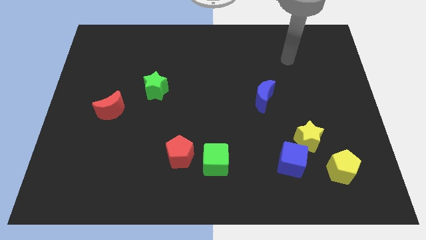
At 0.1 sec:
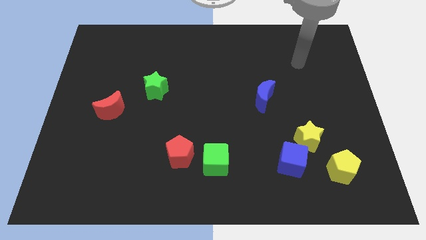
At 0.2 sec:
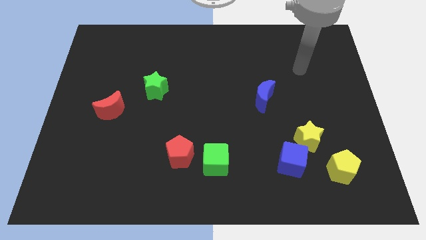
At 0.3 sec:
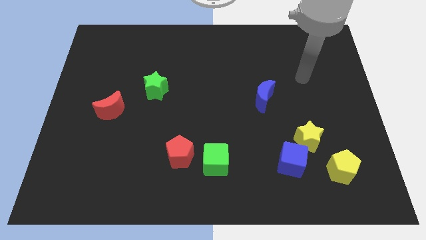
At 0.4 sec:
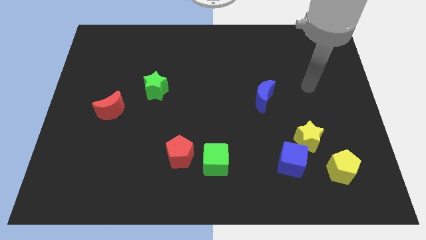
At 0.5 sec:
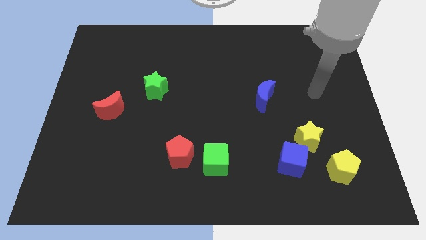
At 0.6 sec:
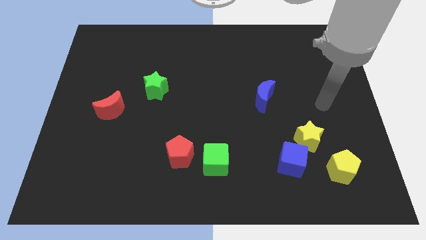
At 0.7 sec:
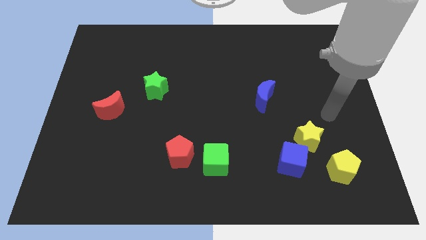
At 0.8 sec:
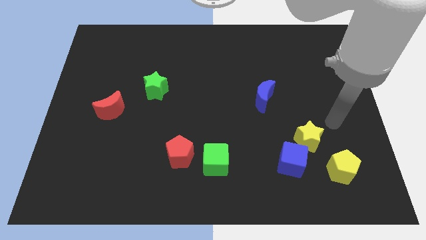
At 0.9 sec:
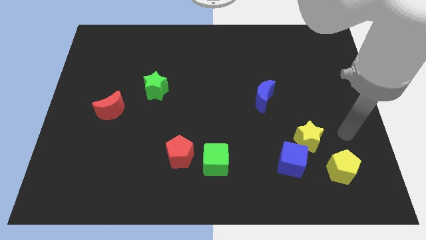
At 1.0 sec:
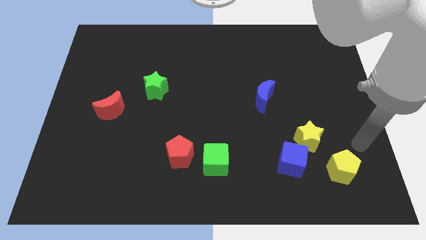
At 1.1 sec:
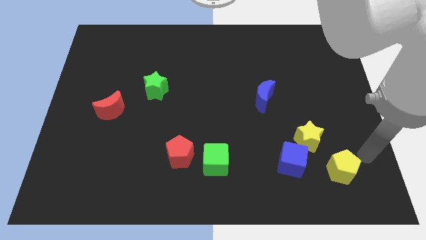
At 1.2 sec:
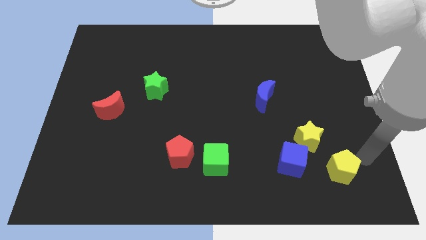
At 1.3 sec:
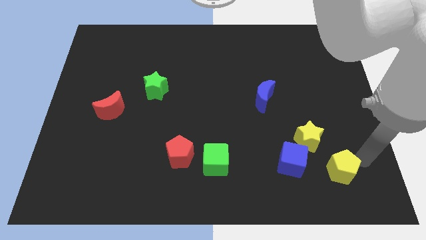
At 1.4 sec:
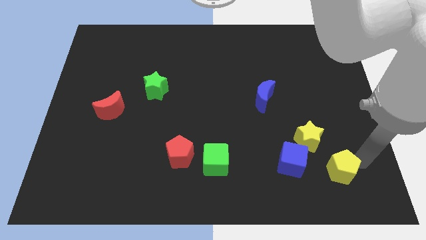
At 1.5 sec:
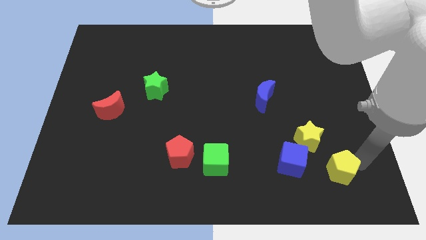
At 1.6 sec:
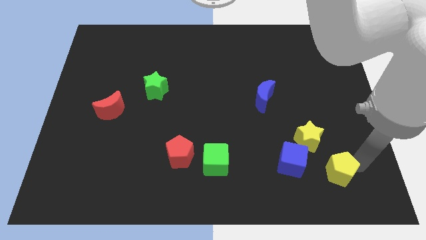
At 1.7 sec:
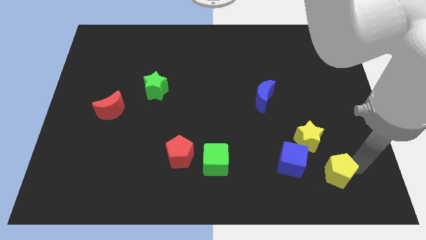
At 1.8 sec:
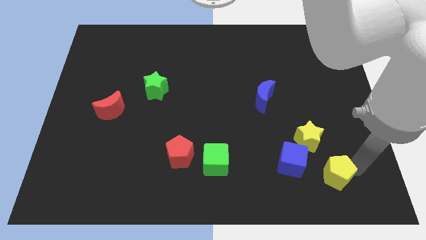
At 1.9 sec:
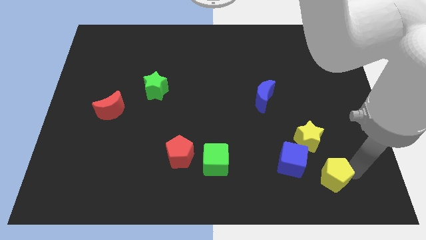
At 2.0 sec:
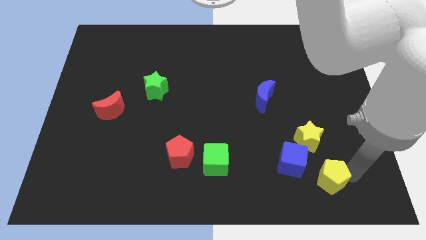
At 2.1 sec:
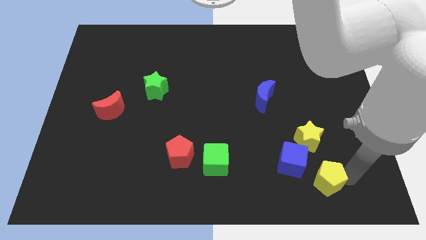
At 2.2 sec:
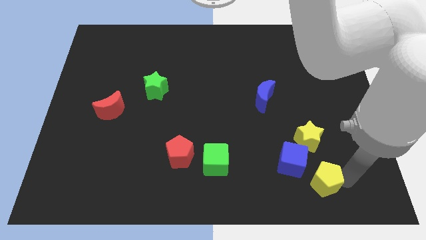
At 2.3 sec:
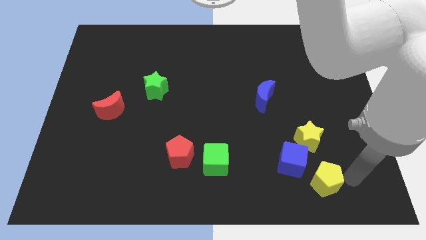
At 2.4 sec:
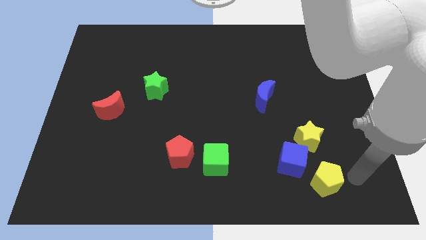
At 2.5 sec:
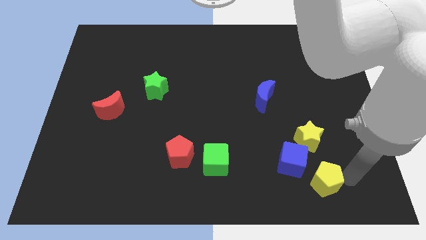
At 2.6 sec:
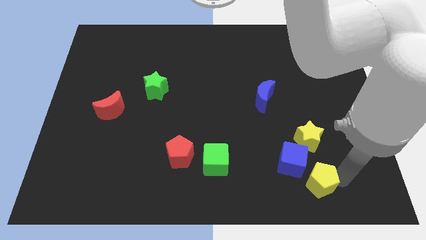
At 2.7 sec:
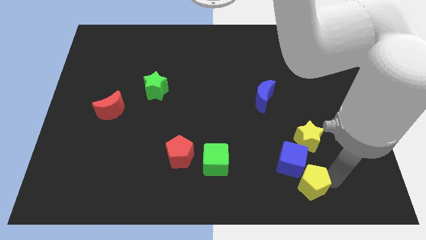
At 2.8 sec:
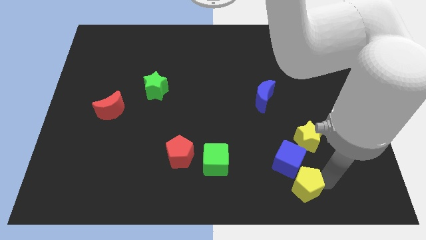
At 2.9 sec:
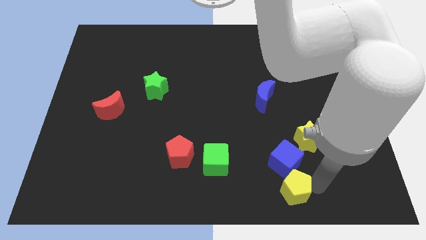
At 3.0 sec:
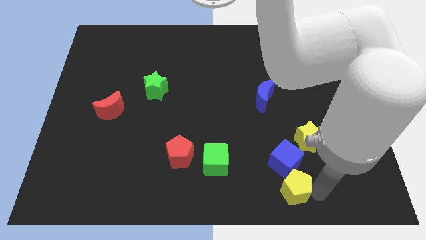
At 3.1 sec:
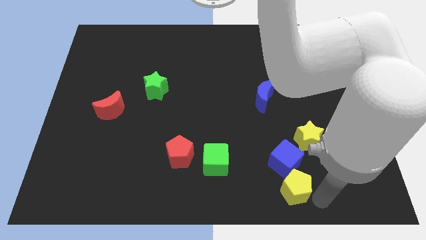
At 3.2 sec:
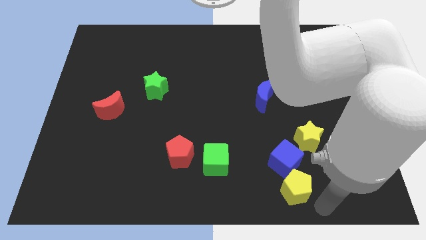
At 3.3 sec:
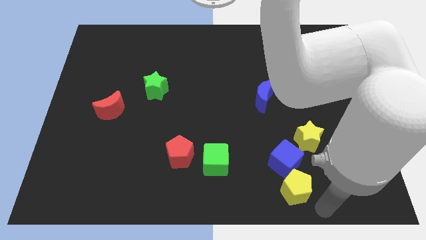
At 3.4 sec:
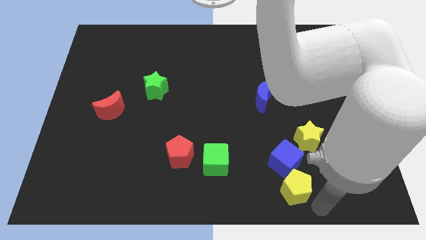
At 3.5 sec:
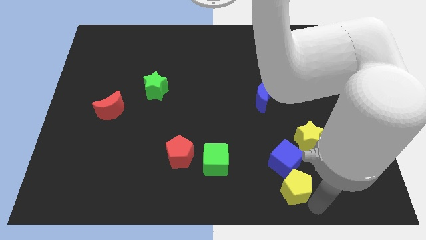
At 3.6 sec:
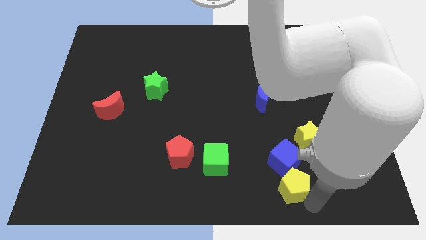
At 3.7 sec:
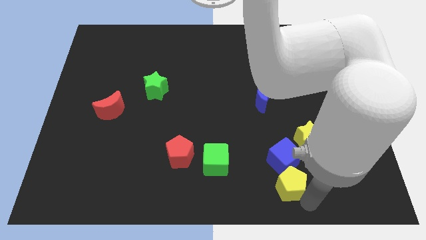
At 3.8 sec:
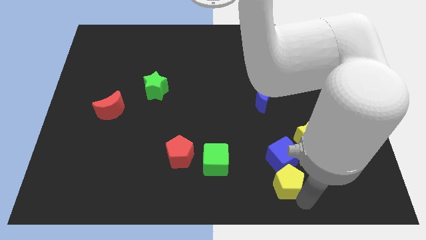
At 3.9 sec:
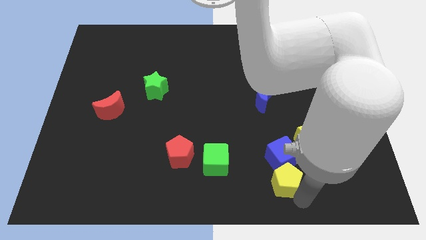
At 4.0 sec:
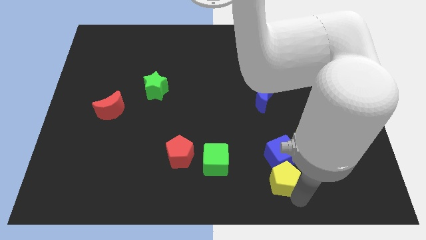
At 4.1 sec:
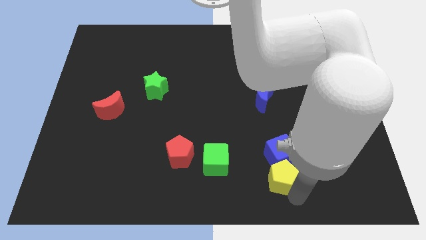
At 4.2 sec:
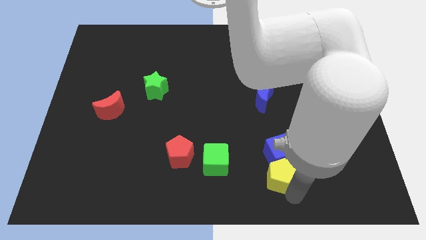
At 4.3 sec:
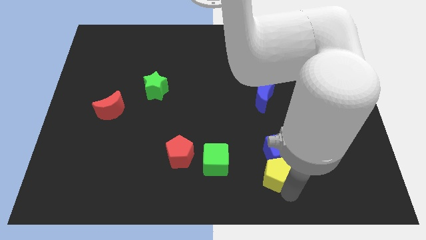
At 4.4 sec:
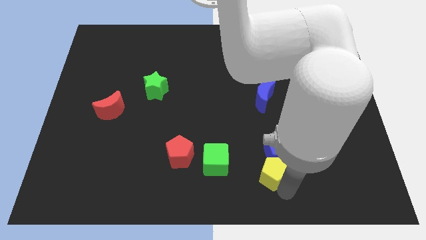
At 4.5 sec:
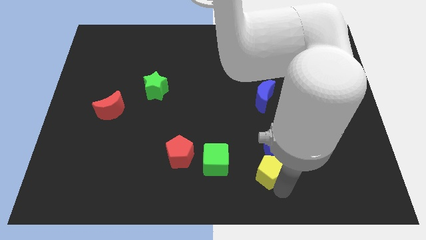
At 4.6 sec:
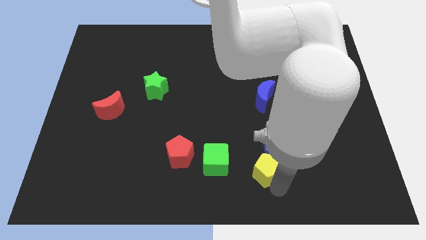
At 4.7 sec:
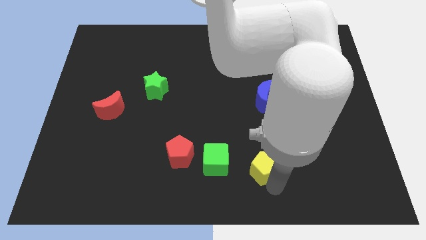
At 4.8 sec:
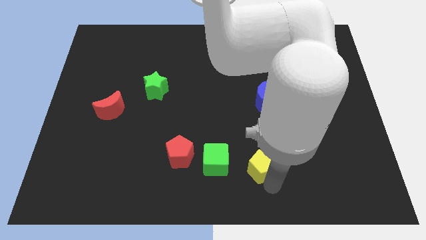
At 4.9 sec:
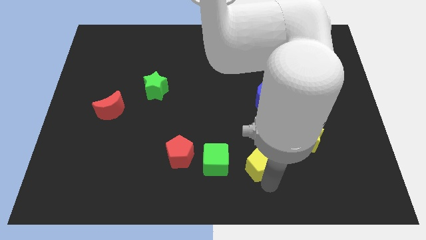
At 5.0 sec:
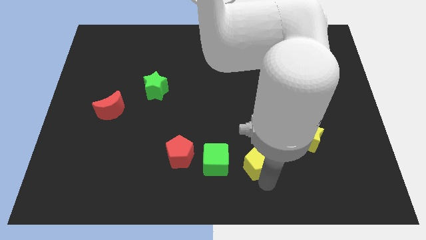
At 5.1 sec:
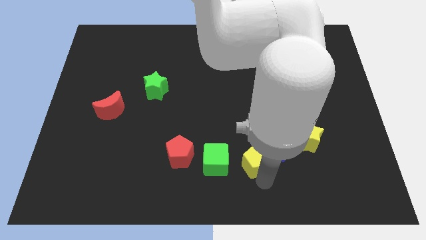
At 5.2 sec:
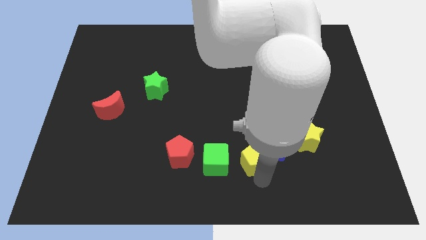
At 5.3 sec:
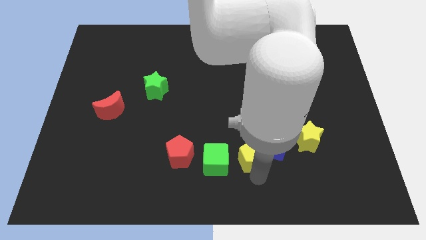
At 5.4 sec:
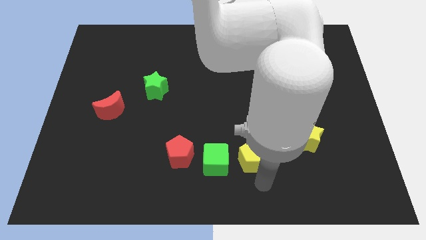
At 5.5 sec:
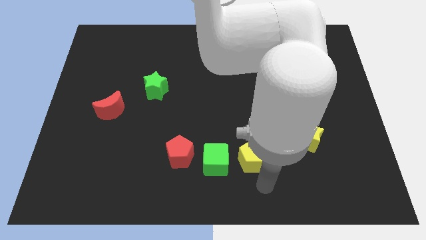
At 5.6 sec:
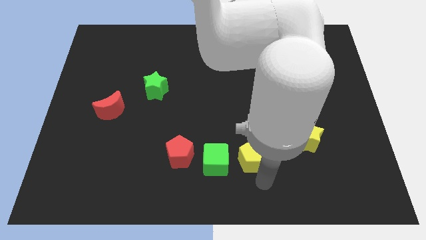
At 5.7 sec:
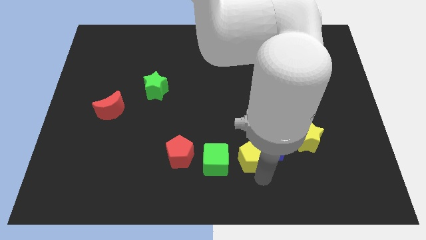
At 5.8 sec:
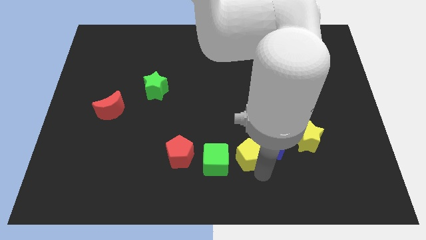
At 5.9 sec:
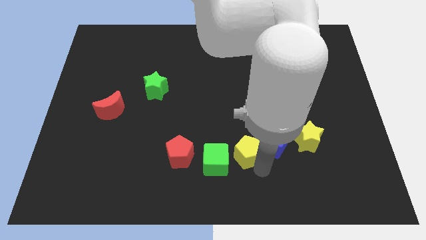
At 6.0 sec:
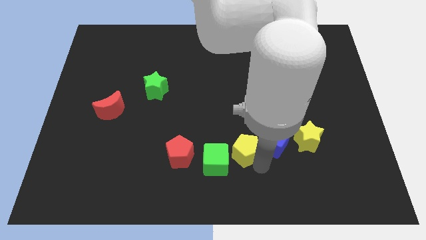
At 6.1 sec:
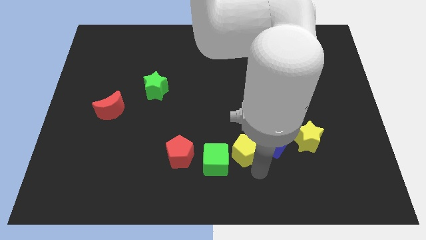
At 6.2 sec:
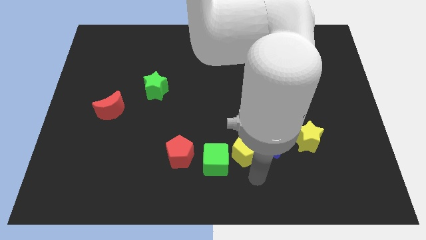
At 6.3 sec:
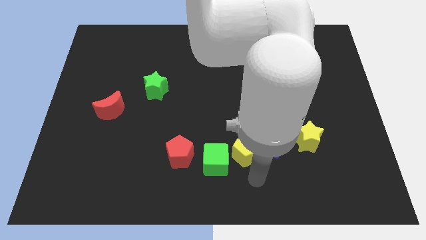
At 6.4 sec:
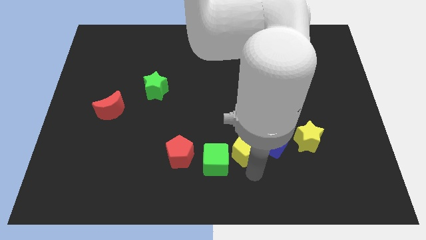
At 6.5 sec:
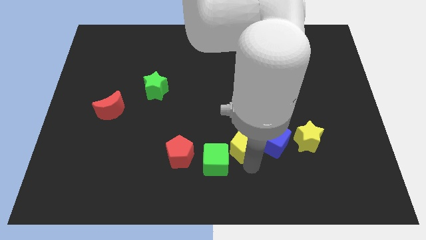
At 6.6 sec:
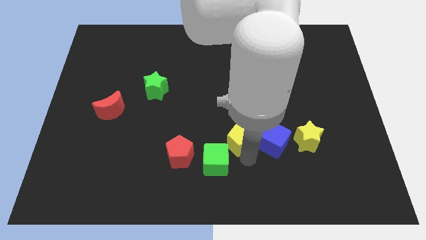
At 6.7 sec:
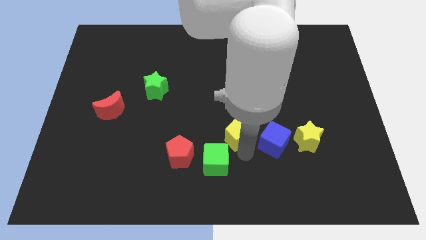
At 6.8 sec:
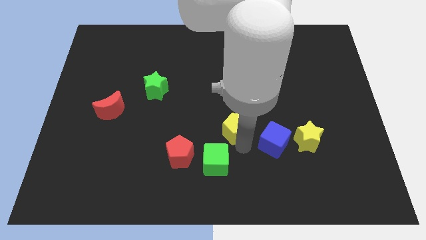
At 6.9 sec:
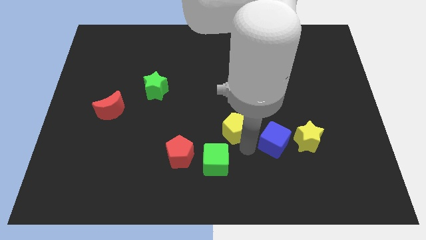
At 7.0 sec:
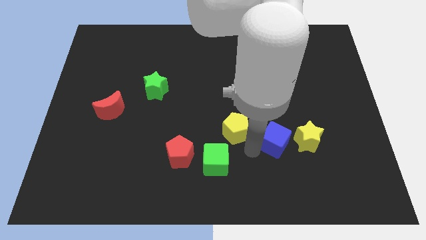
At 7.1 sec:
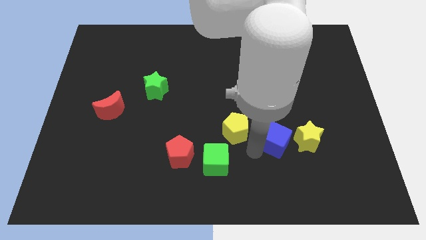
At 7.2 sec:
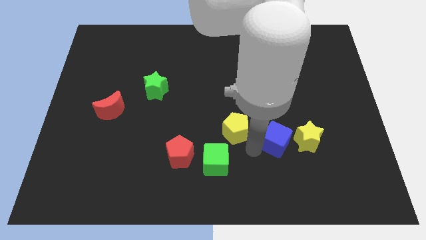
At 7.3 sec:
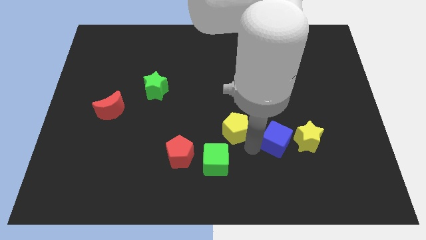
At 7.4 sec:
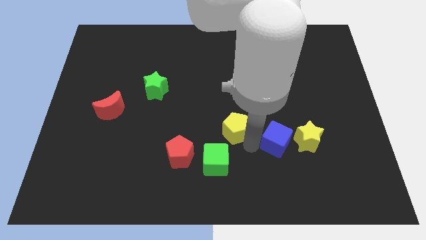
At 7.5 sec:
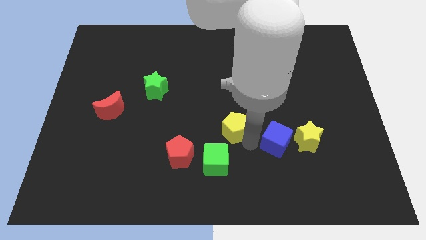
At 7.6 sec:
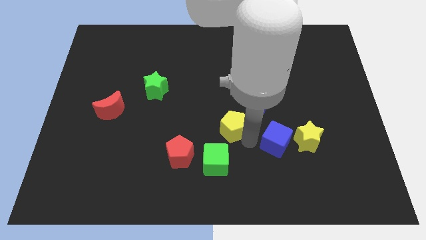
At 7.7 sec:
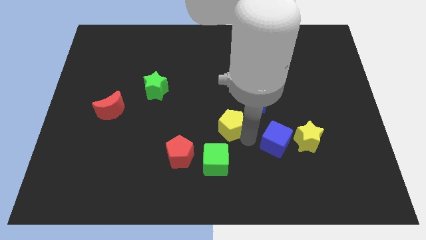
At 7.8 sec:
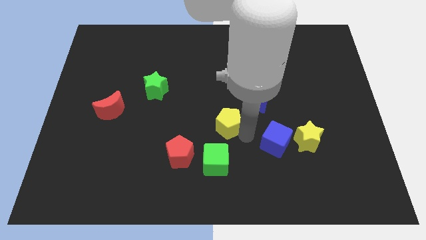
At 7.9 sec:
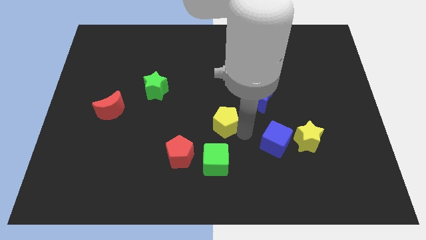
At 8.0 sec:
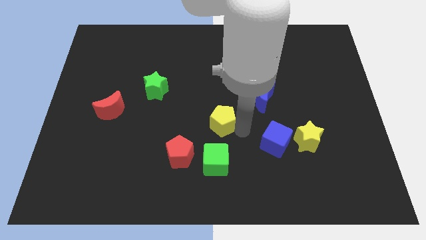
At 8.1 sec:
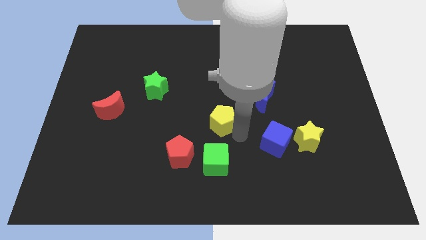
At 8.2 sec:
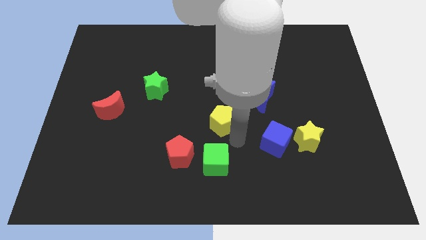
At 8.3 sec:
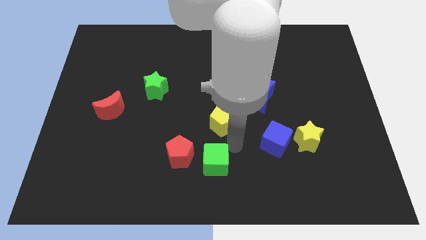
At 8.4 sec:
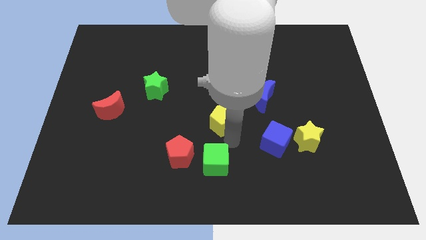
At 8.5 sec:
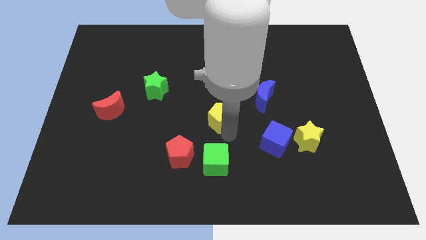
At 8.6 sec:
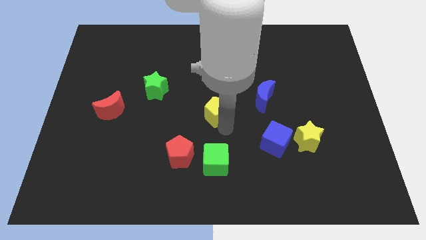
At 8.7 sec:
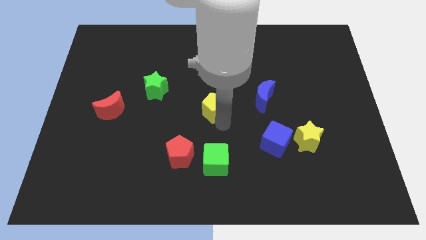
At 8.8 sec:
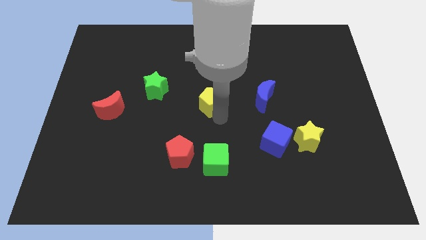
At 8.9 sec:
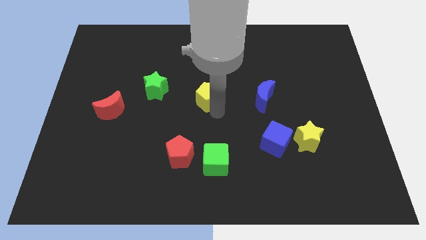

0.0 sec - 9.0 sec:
slide the yellow pentagon to the right of the green star
